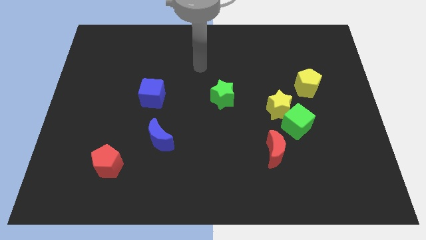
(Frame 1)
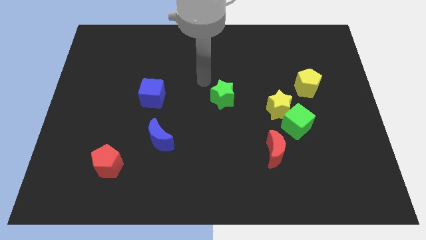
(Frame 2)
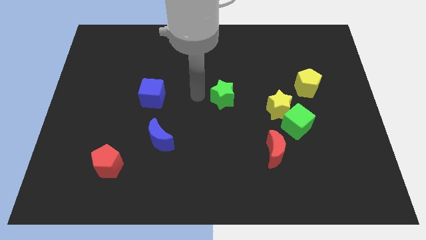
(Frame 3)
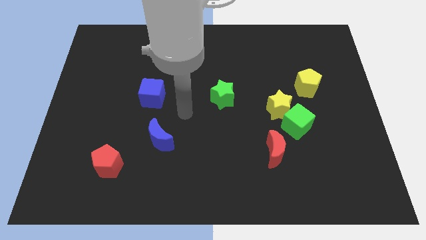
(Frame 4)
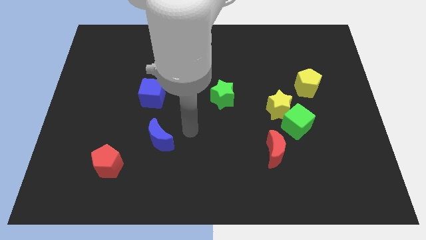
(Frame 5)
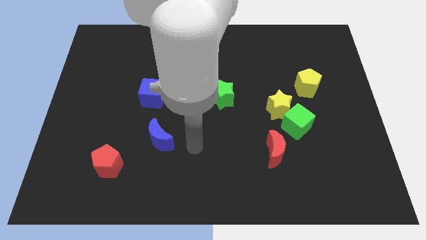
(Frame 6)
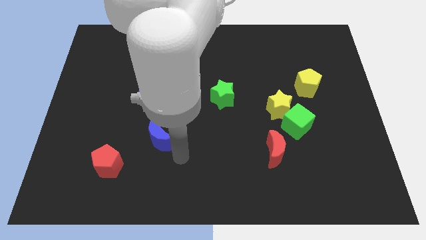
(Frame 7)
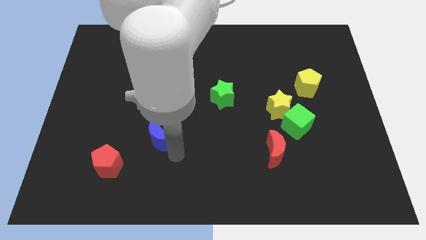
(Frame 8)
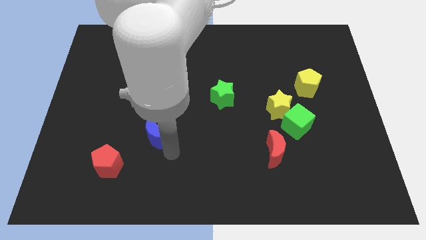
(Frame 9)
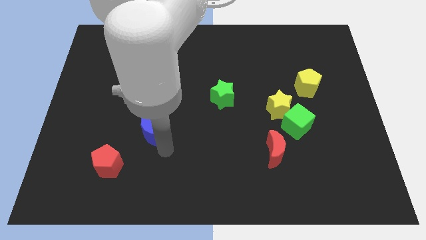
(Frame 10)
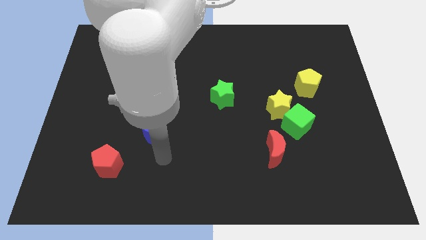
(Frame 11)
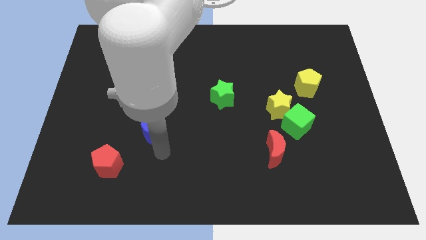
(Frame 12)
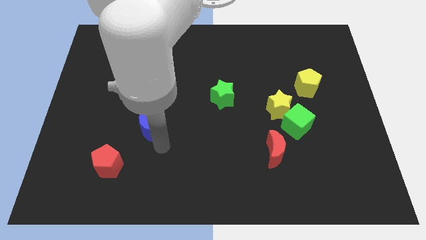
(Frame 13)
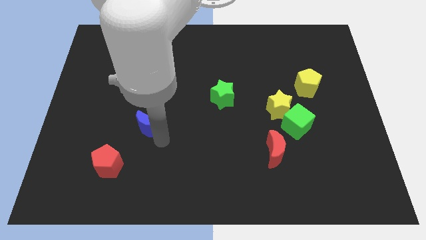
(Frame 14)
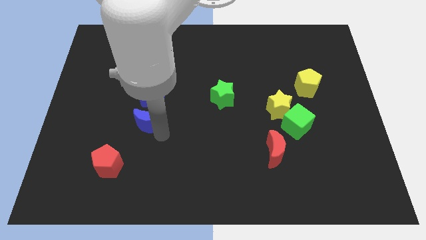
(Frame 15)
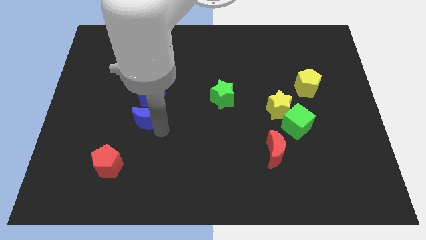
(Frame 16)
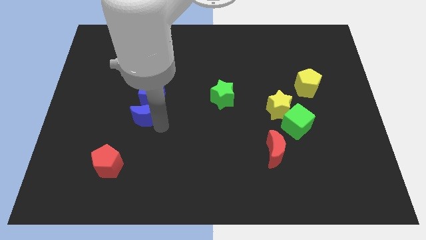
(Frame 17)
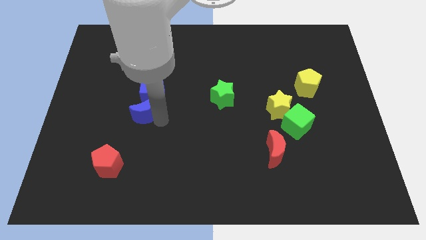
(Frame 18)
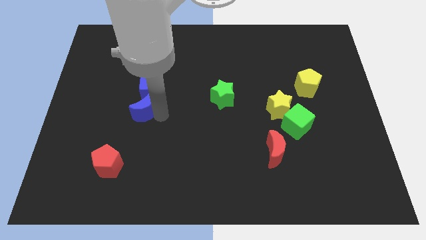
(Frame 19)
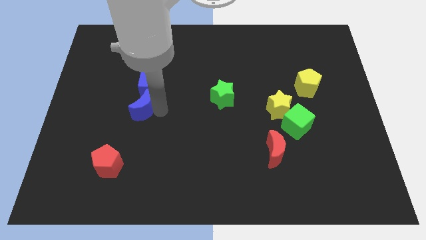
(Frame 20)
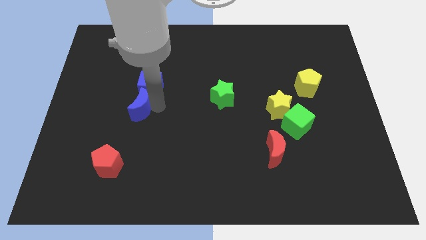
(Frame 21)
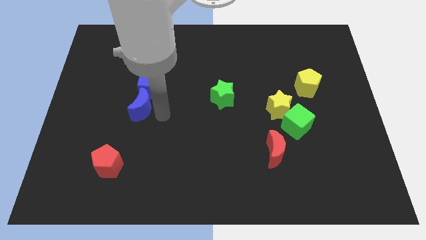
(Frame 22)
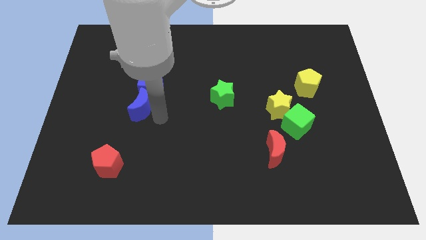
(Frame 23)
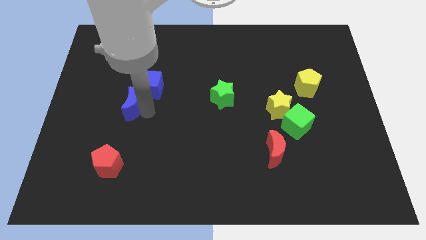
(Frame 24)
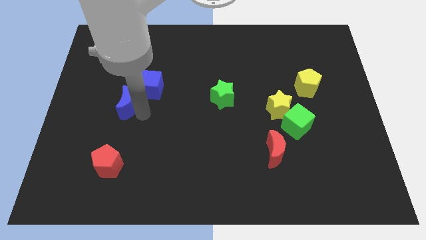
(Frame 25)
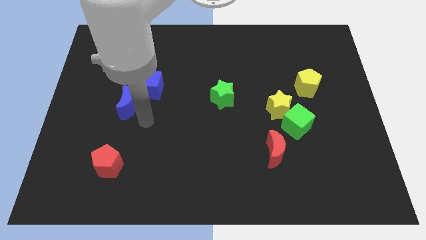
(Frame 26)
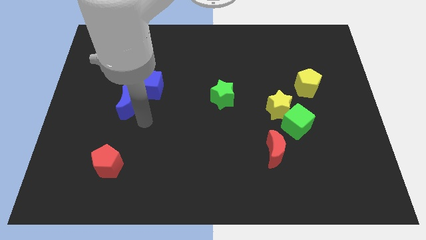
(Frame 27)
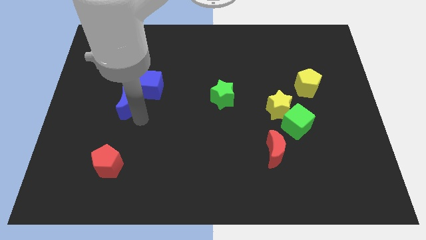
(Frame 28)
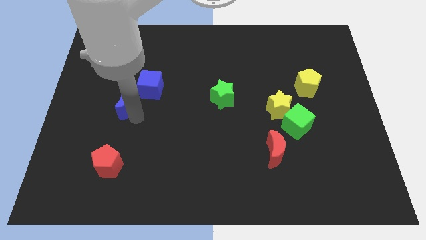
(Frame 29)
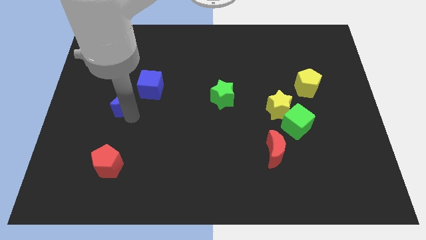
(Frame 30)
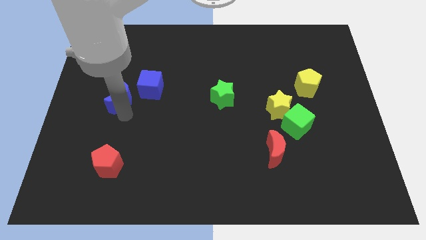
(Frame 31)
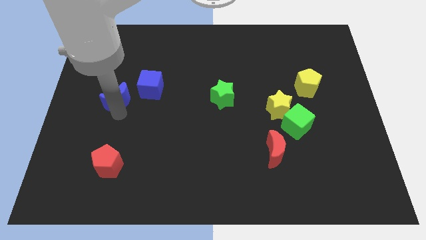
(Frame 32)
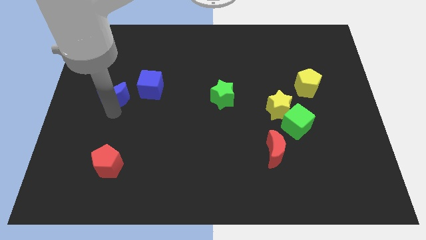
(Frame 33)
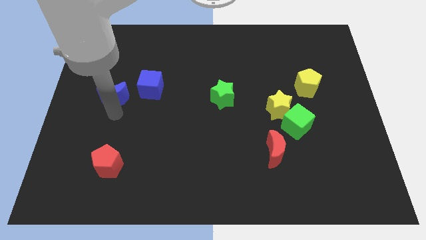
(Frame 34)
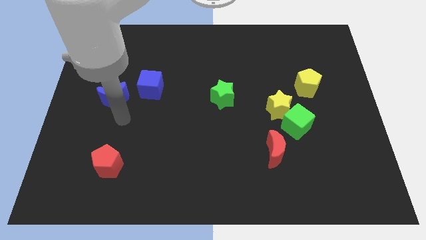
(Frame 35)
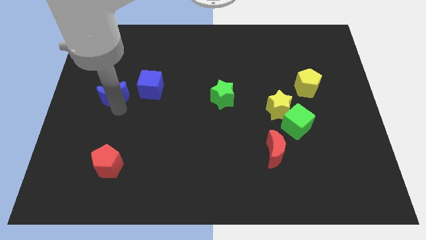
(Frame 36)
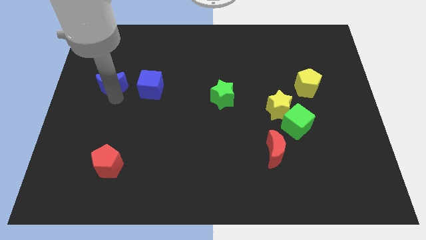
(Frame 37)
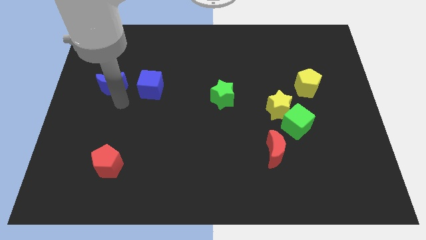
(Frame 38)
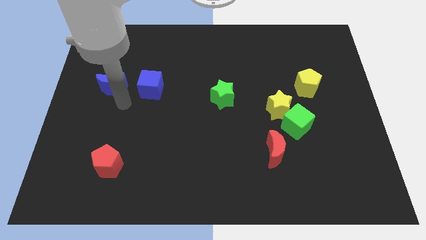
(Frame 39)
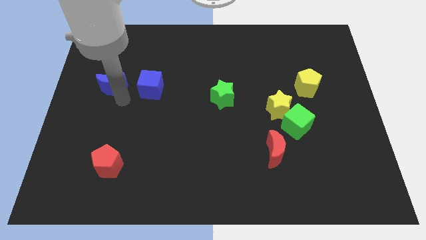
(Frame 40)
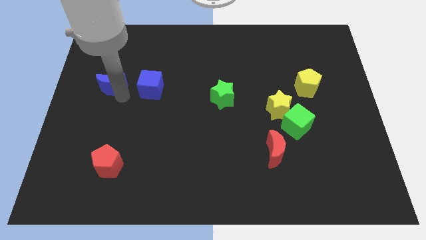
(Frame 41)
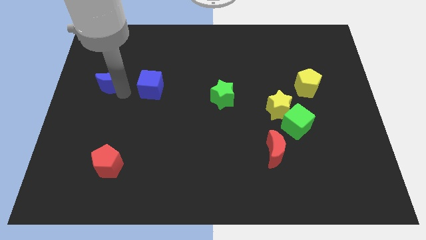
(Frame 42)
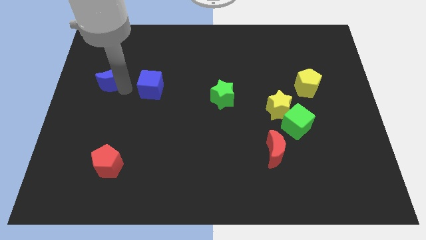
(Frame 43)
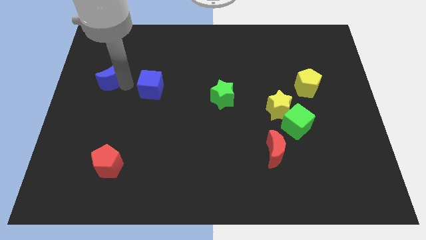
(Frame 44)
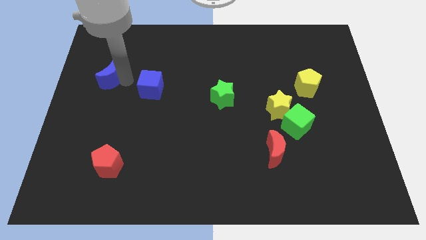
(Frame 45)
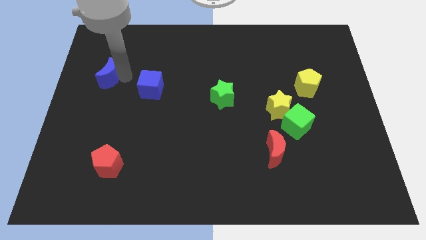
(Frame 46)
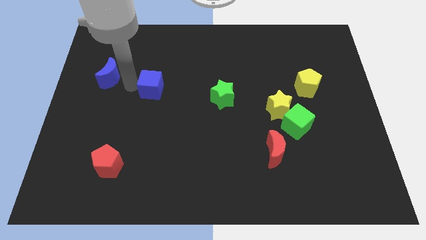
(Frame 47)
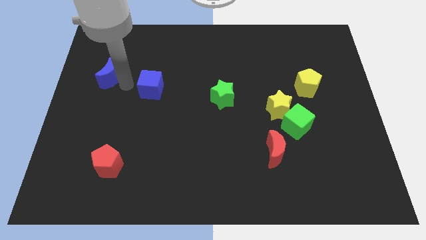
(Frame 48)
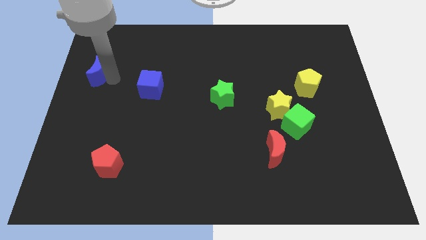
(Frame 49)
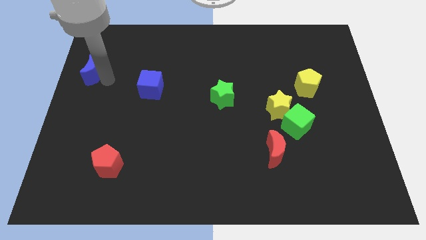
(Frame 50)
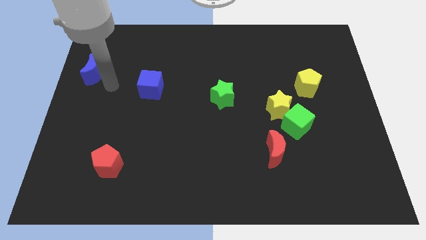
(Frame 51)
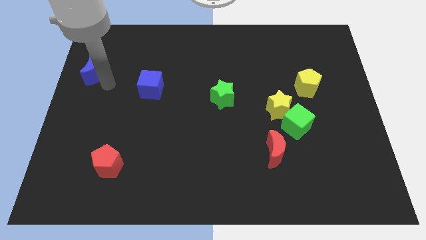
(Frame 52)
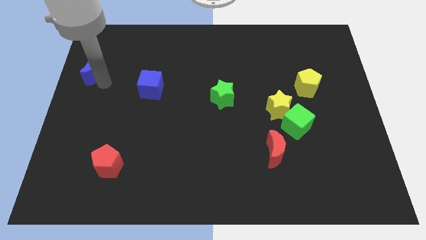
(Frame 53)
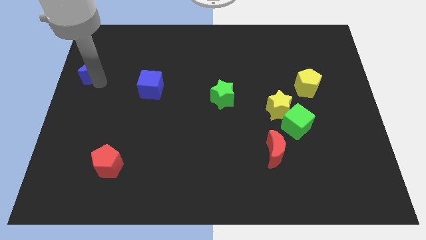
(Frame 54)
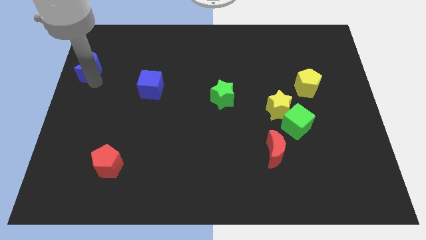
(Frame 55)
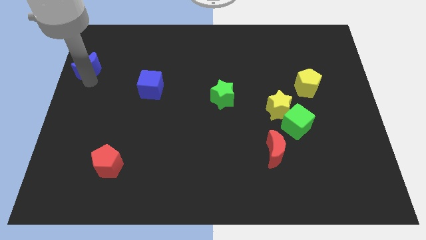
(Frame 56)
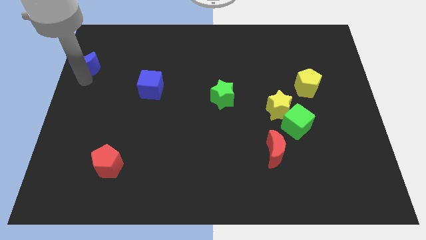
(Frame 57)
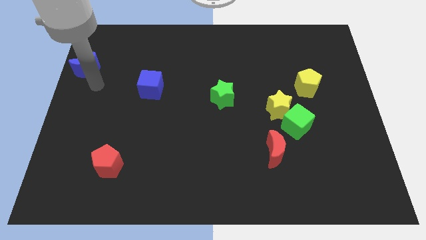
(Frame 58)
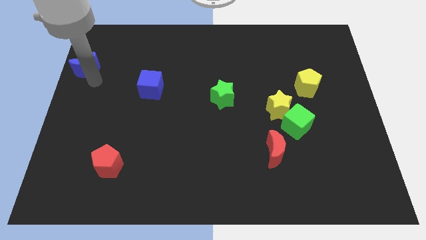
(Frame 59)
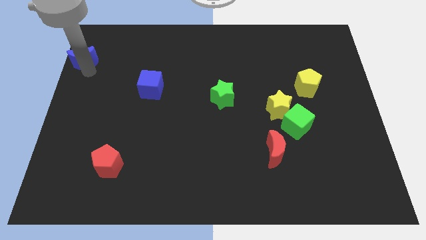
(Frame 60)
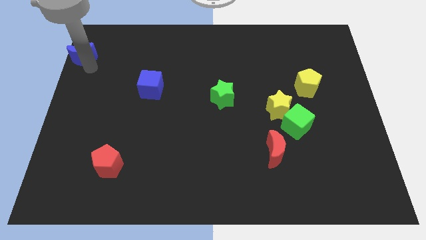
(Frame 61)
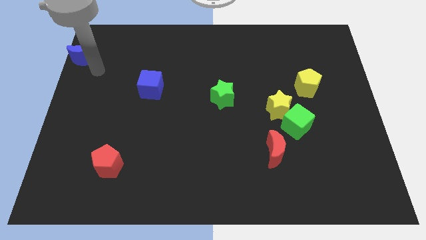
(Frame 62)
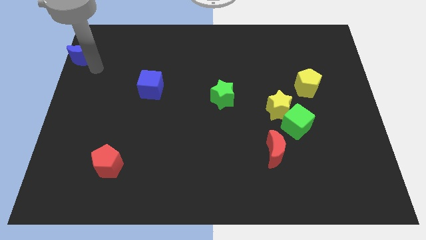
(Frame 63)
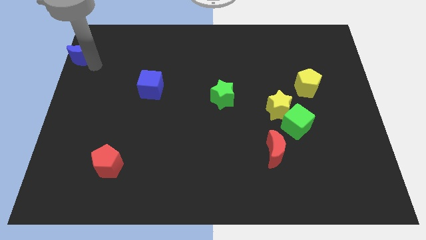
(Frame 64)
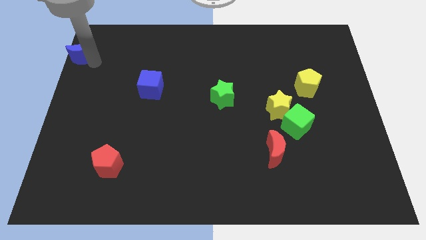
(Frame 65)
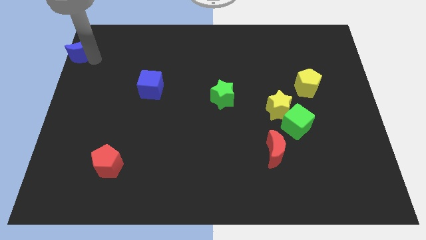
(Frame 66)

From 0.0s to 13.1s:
put the blue moon to the upper left corner
